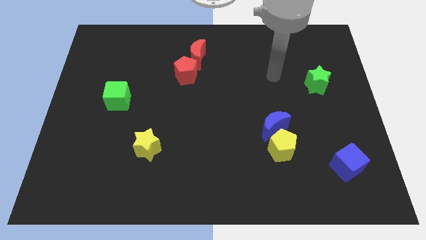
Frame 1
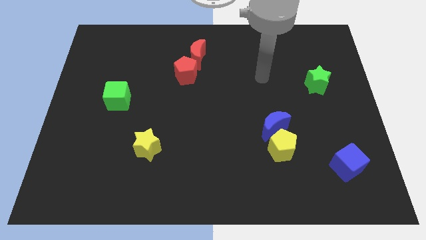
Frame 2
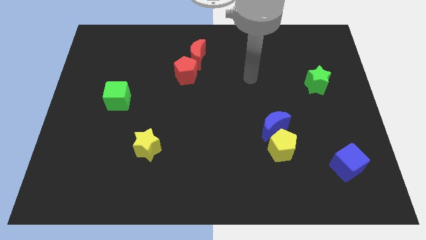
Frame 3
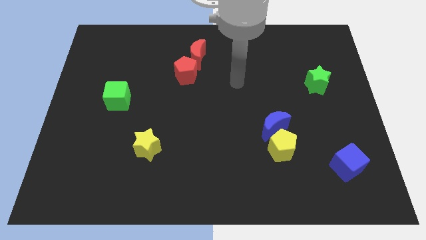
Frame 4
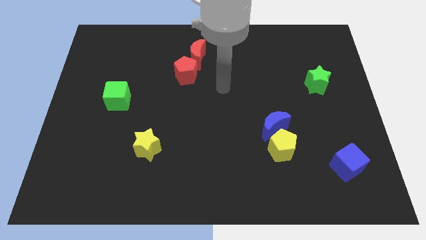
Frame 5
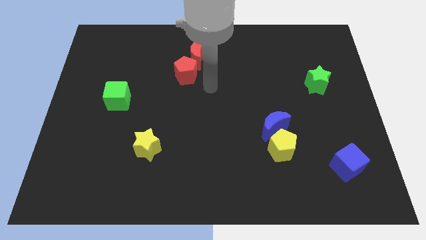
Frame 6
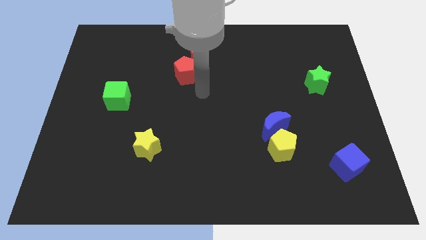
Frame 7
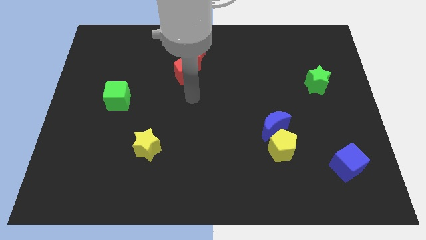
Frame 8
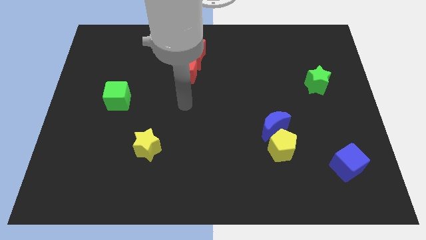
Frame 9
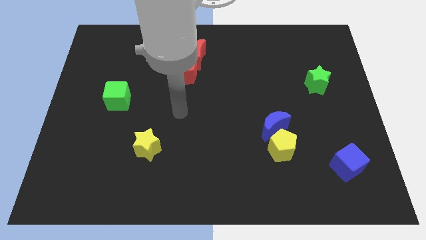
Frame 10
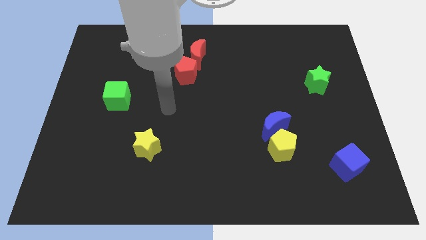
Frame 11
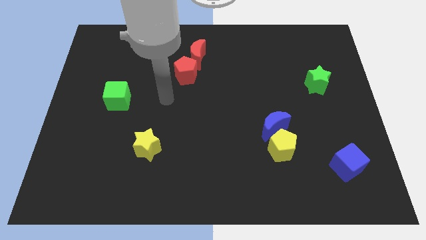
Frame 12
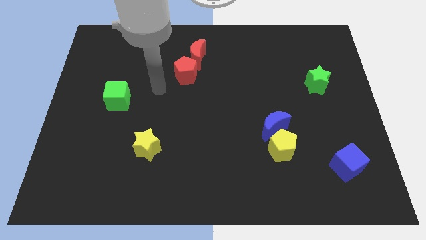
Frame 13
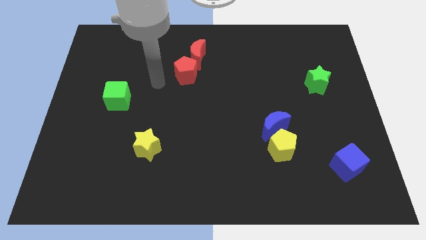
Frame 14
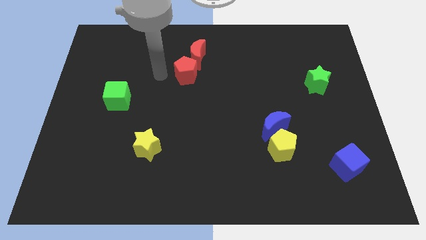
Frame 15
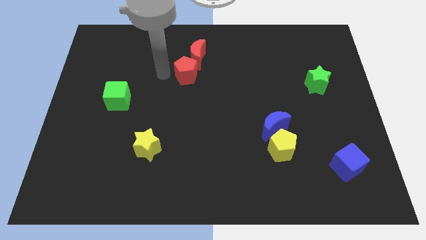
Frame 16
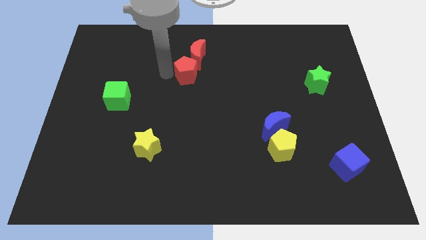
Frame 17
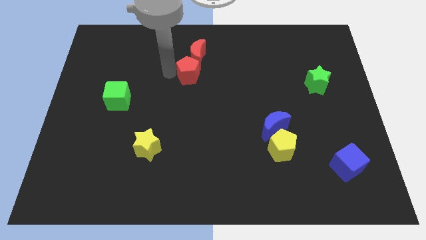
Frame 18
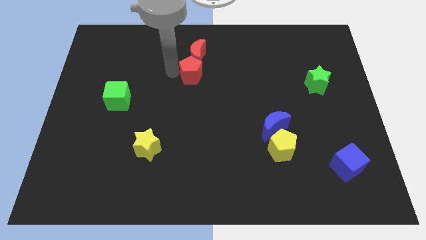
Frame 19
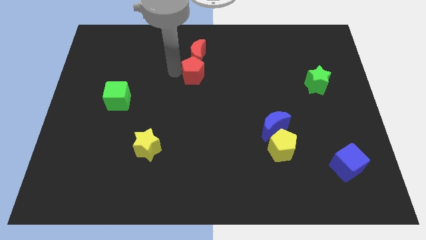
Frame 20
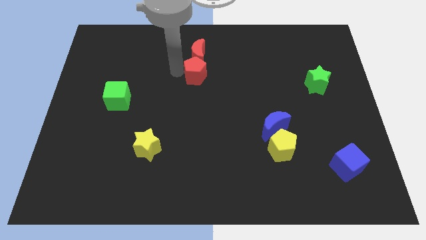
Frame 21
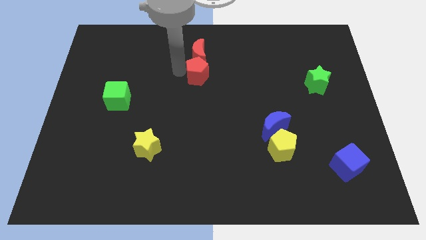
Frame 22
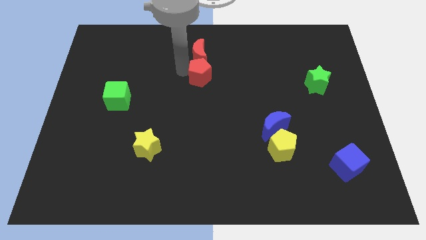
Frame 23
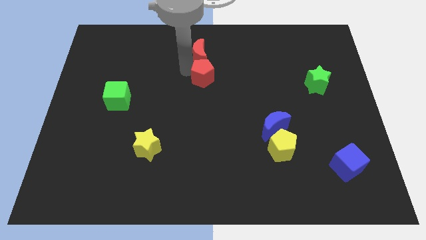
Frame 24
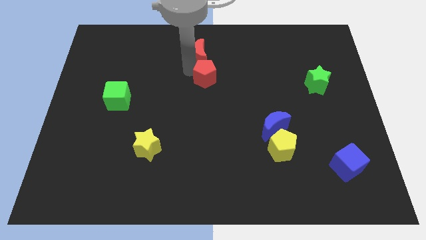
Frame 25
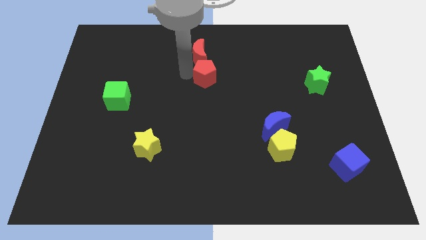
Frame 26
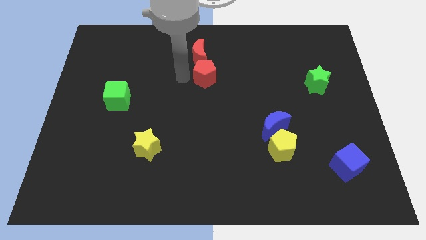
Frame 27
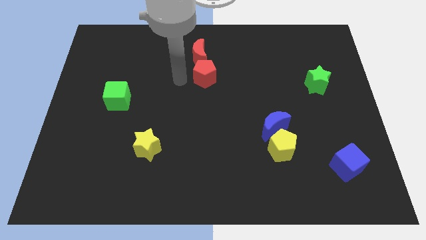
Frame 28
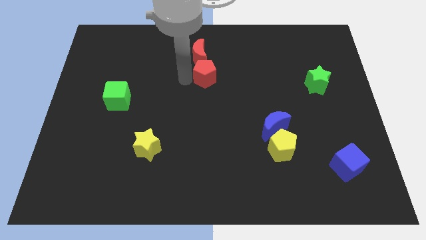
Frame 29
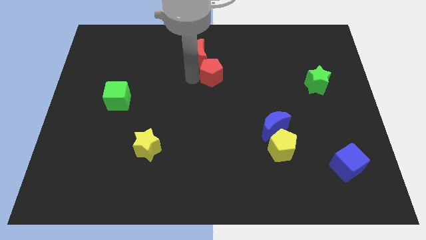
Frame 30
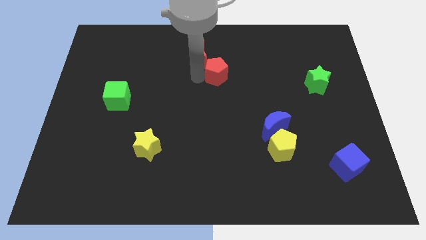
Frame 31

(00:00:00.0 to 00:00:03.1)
slightly slide the red pentagon right

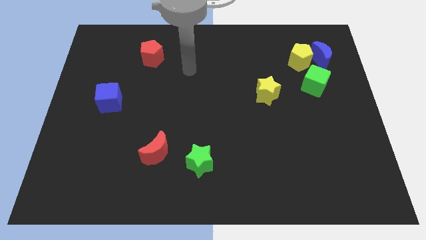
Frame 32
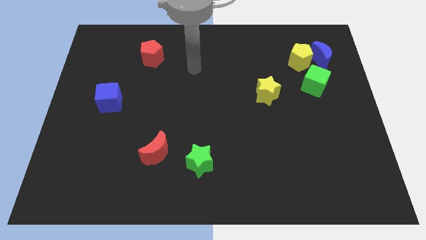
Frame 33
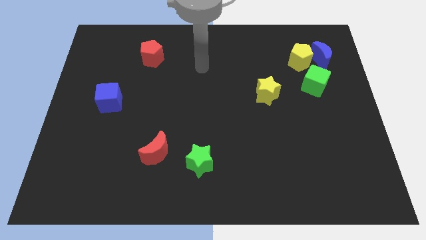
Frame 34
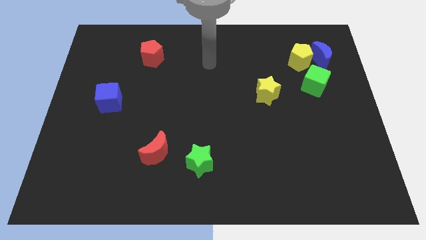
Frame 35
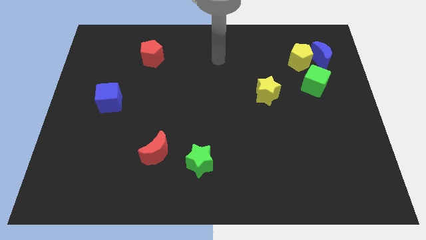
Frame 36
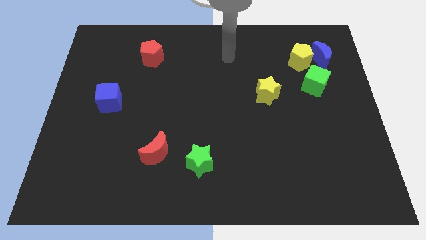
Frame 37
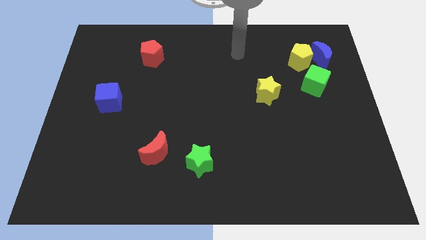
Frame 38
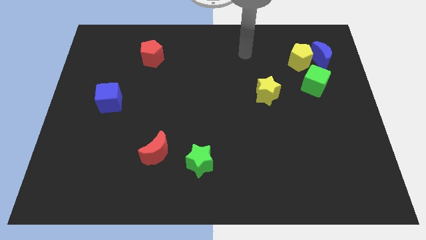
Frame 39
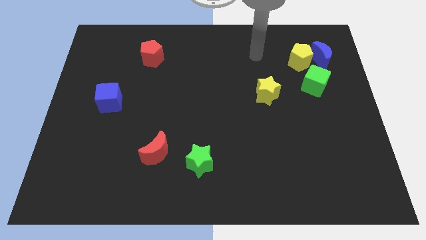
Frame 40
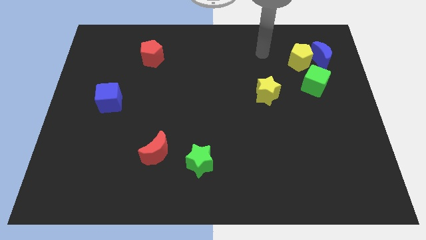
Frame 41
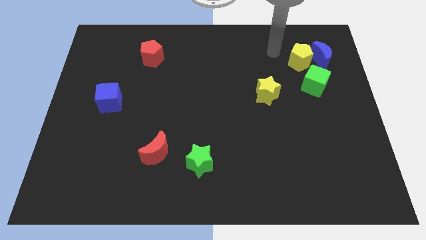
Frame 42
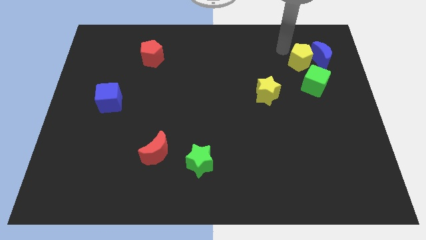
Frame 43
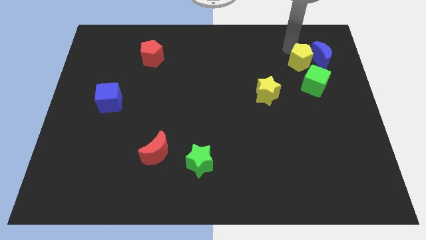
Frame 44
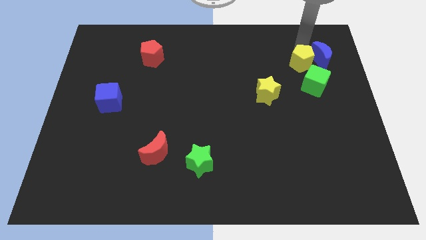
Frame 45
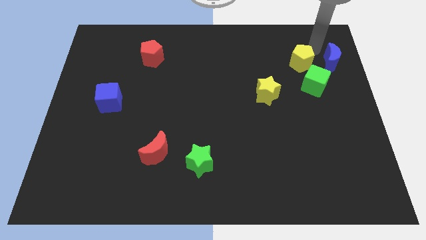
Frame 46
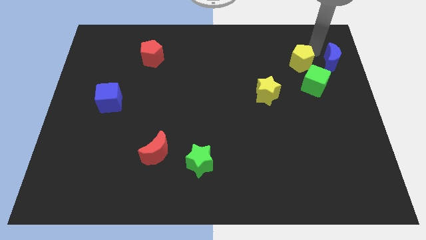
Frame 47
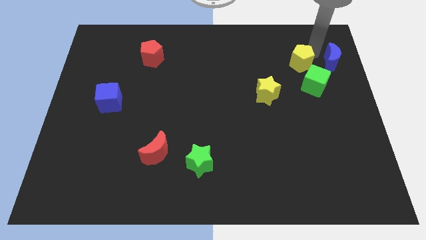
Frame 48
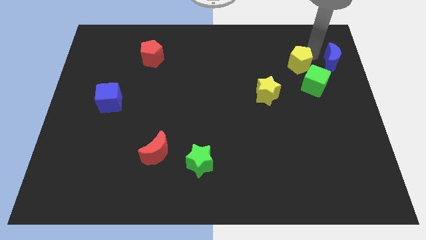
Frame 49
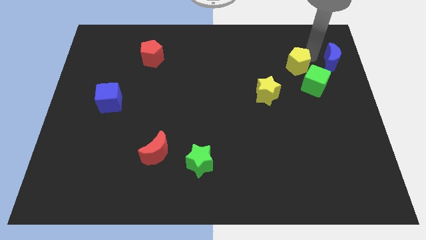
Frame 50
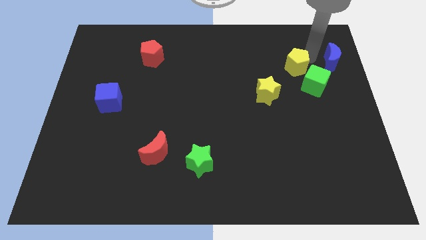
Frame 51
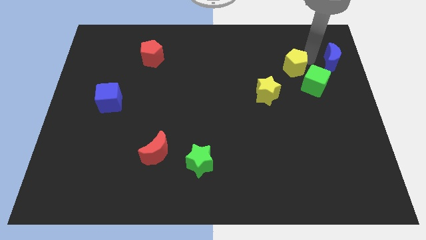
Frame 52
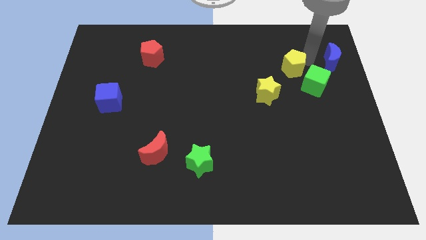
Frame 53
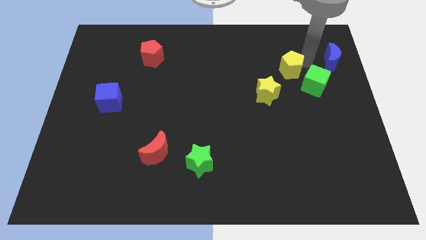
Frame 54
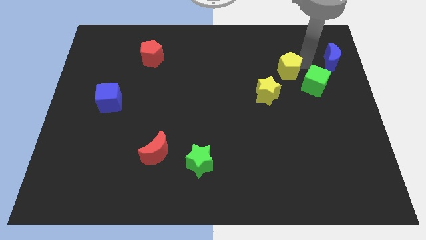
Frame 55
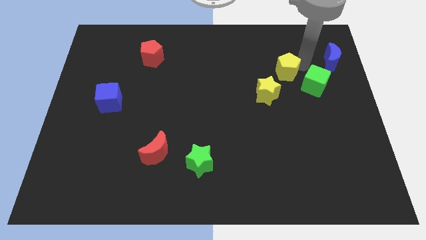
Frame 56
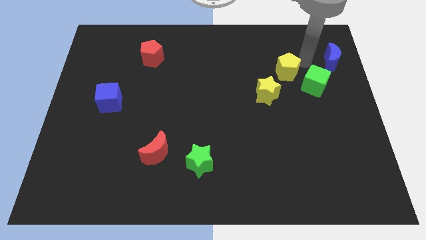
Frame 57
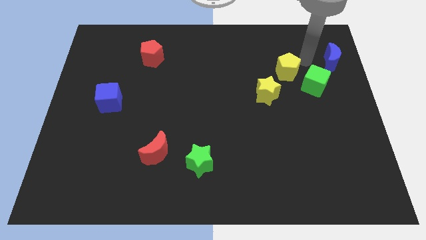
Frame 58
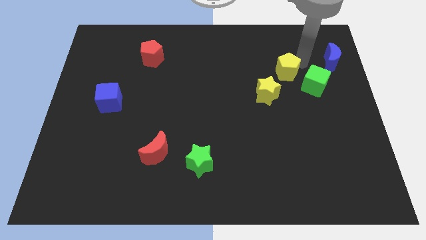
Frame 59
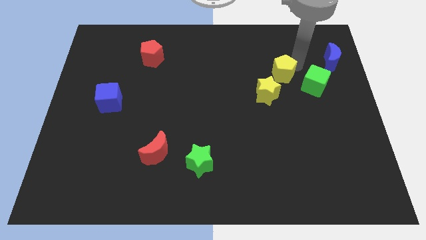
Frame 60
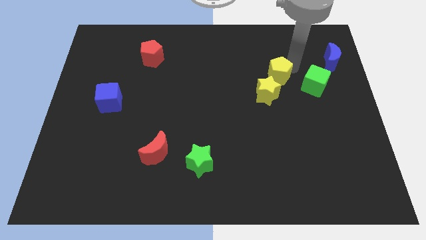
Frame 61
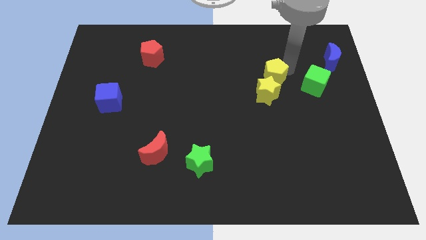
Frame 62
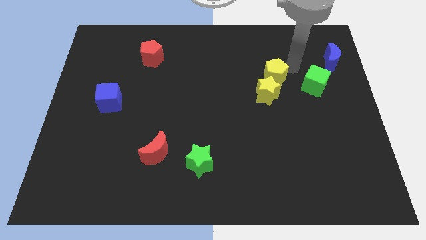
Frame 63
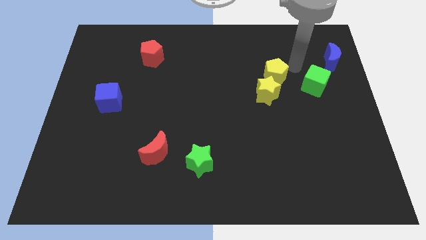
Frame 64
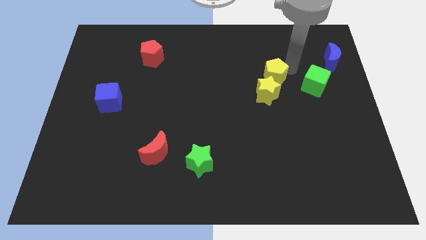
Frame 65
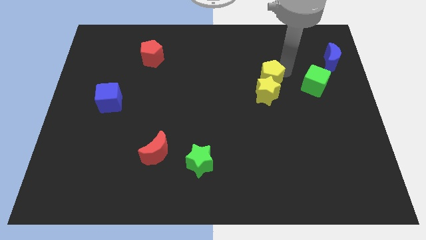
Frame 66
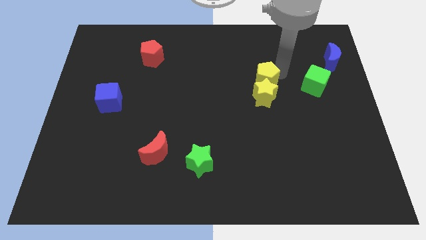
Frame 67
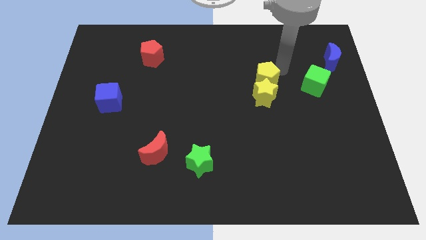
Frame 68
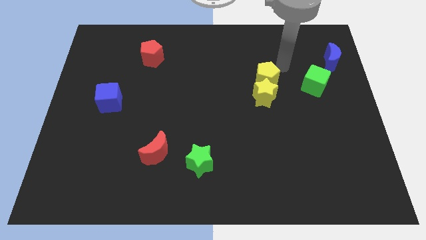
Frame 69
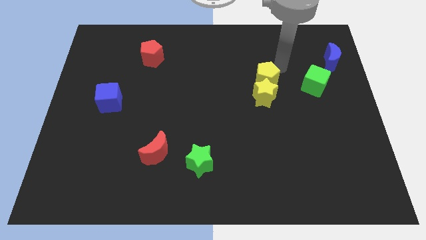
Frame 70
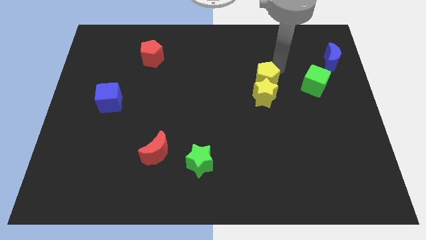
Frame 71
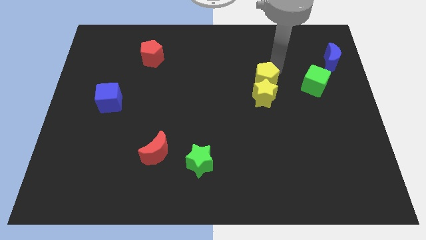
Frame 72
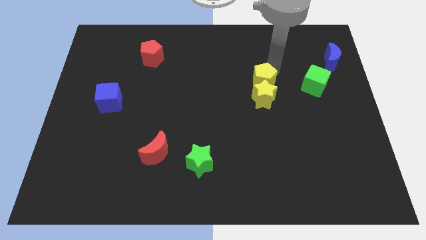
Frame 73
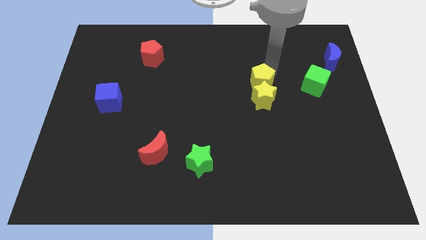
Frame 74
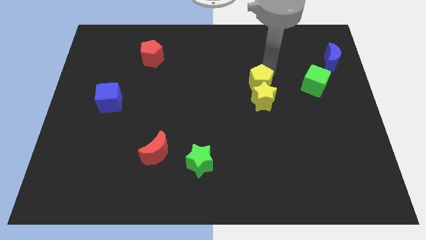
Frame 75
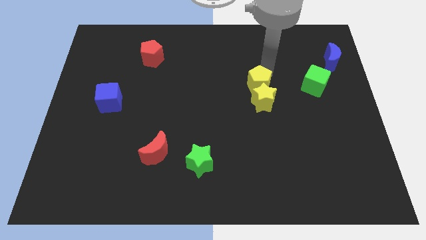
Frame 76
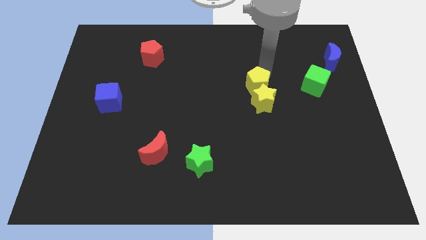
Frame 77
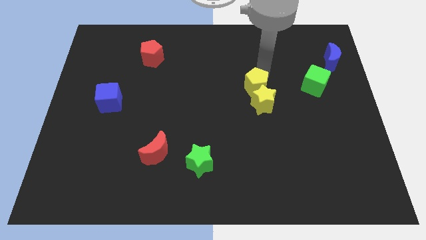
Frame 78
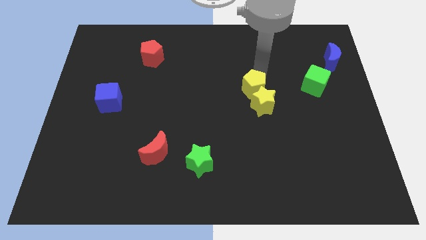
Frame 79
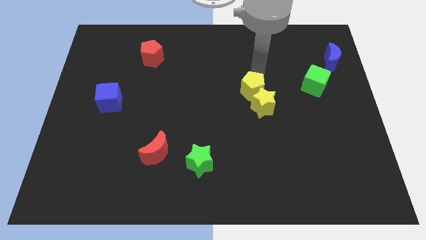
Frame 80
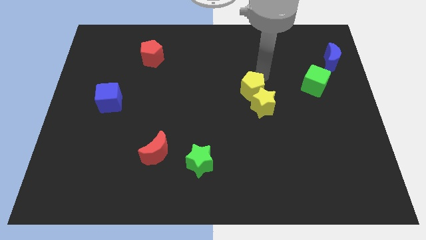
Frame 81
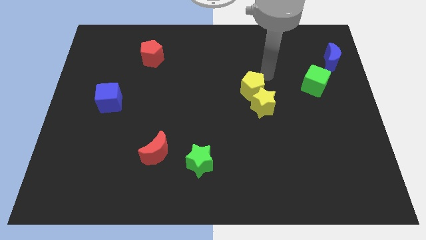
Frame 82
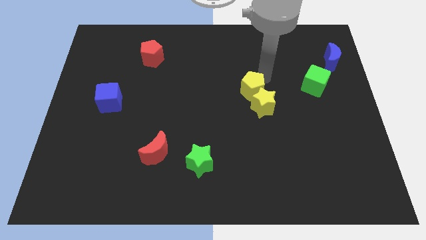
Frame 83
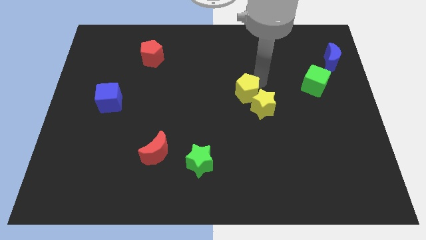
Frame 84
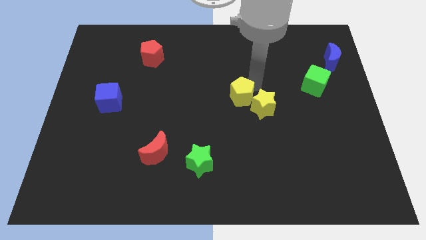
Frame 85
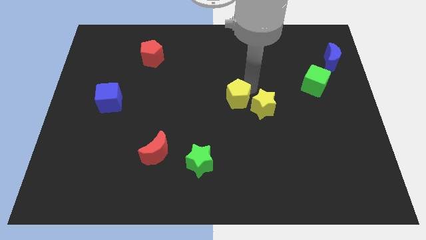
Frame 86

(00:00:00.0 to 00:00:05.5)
move the yellow pentagon down and then to the left
